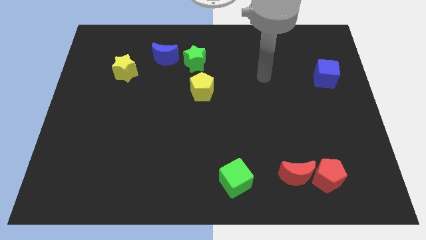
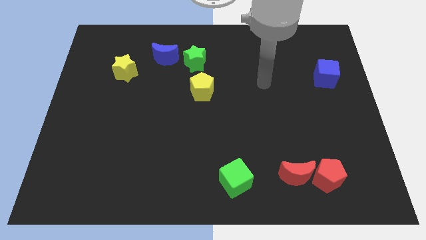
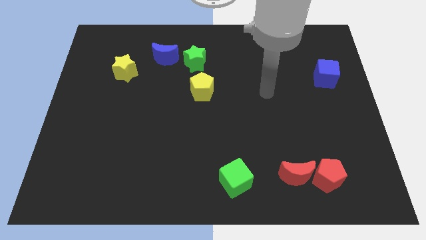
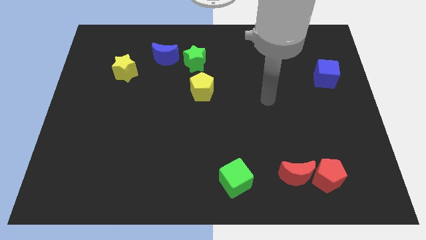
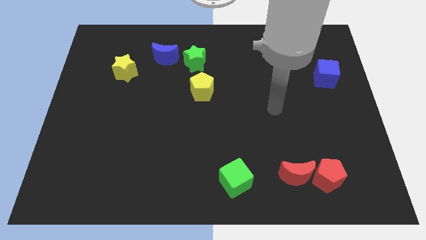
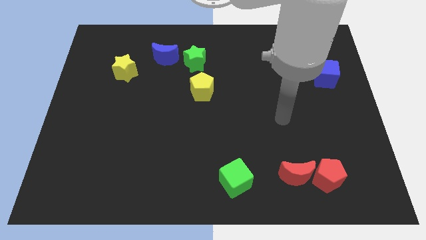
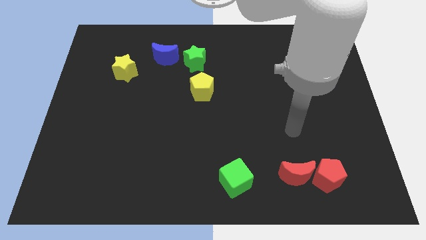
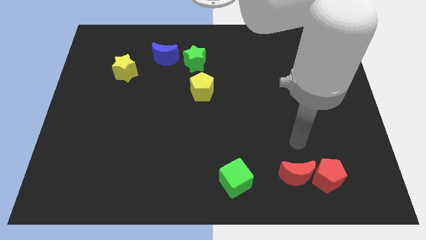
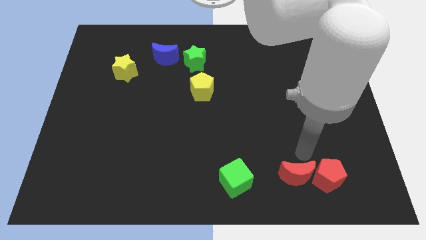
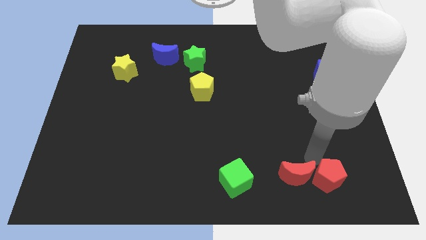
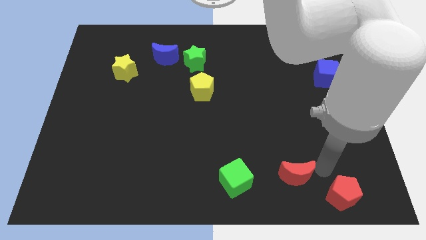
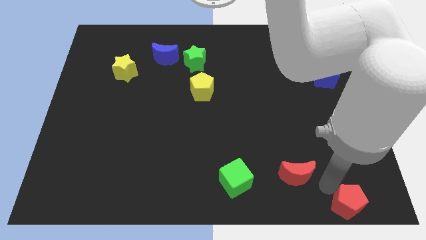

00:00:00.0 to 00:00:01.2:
separate the red moon from the red pentagon

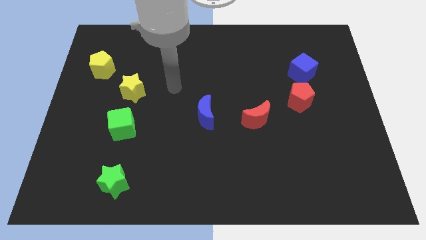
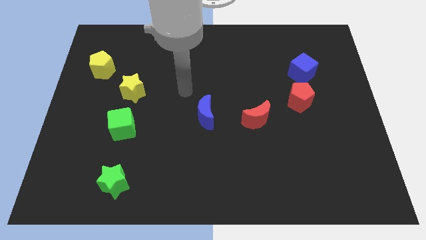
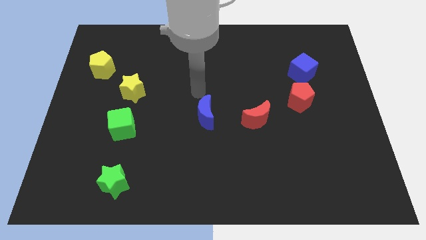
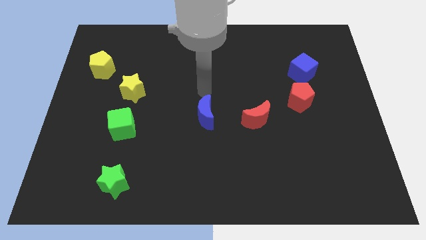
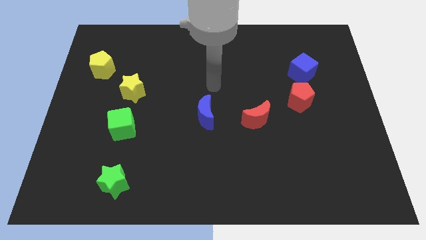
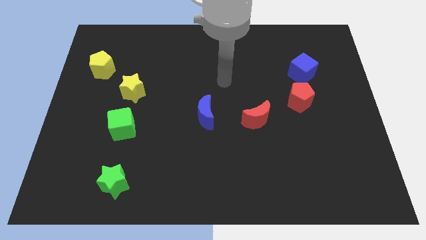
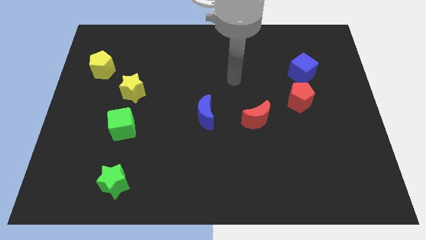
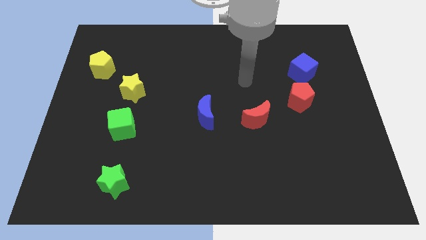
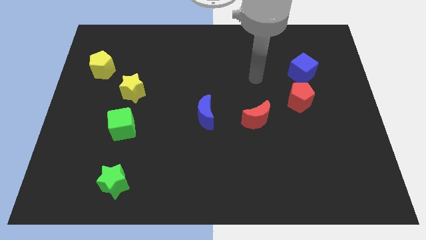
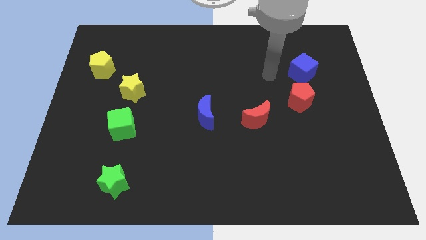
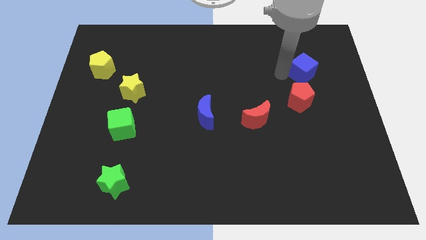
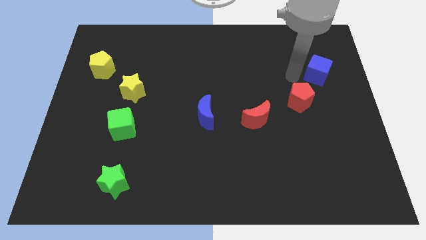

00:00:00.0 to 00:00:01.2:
separate the red pentagon from the blue cube

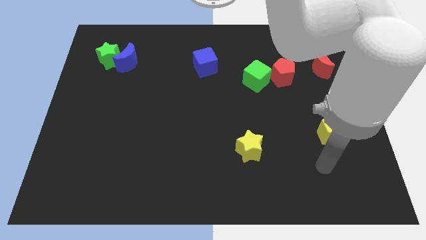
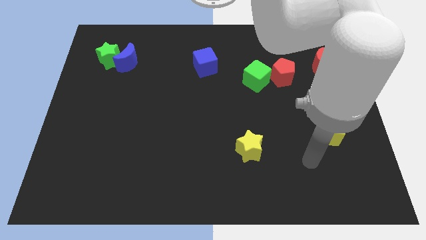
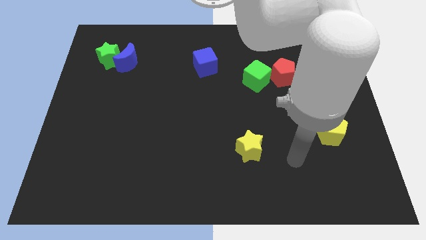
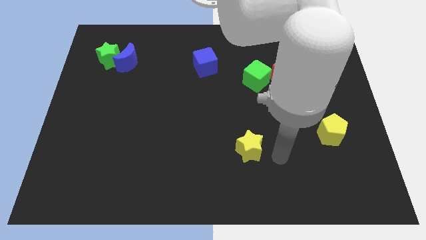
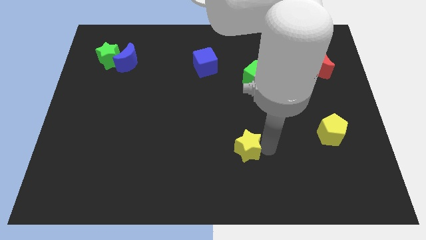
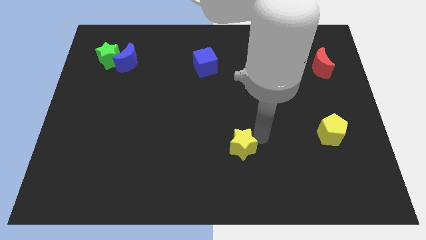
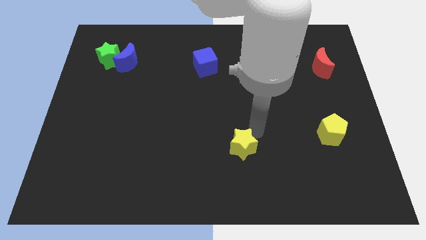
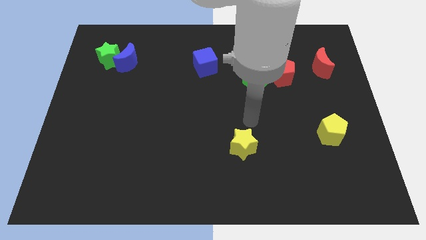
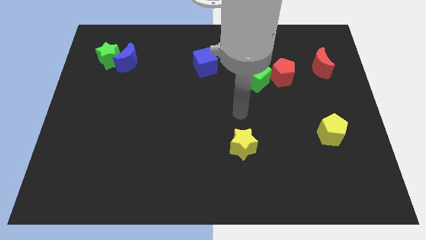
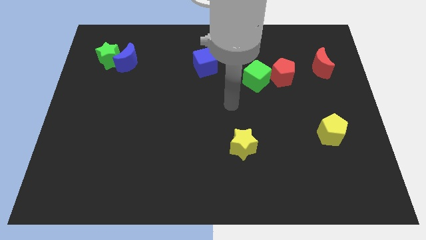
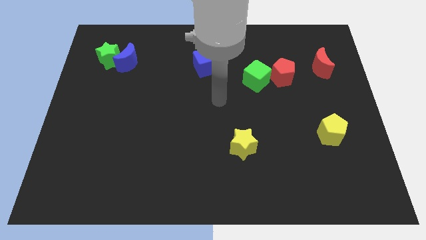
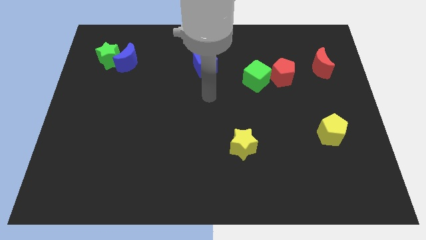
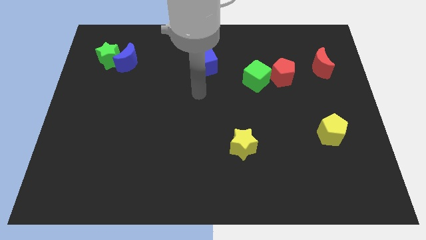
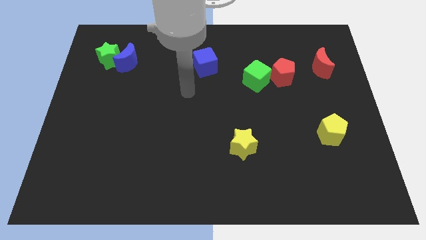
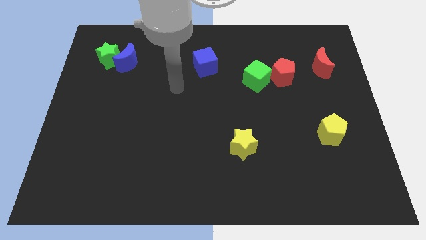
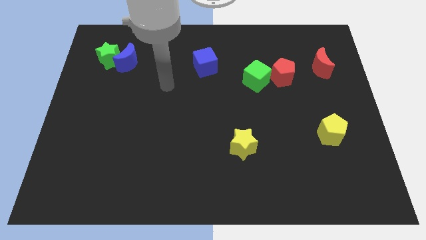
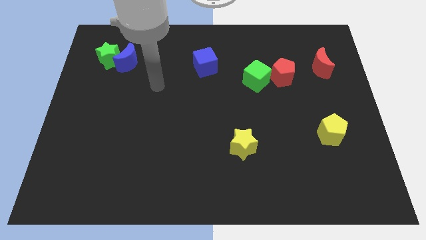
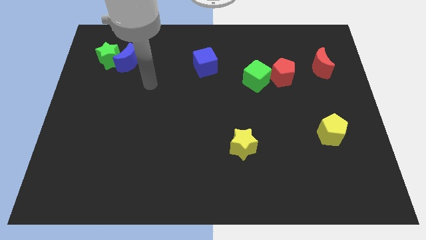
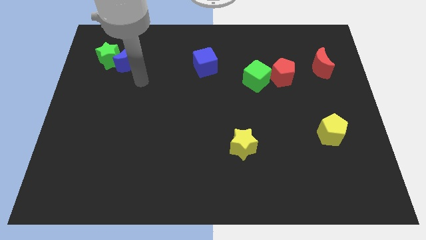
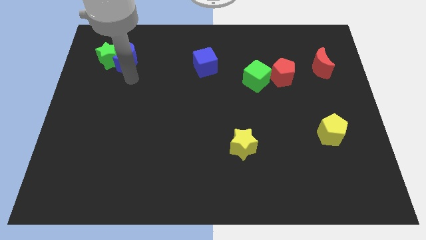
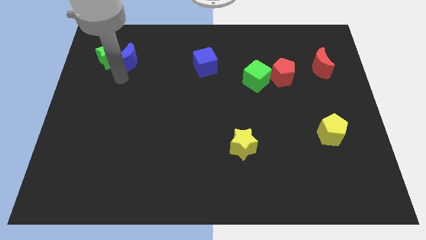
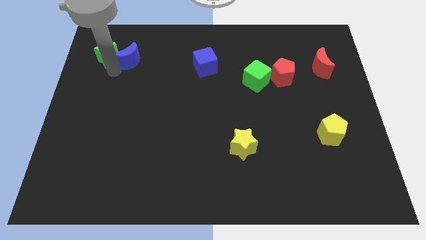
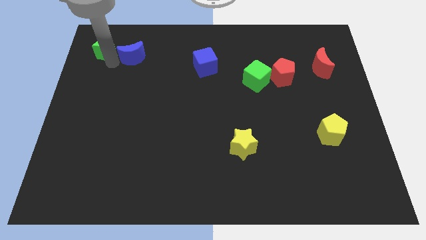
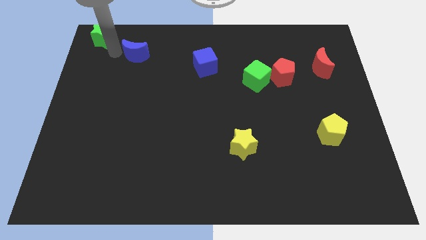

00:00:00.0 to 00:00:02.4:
separate the blue moon from the green star

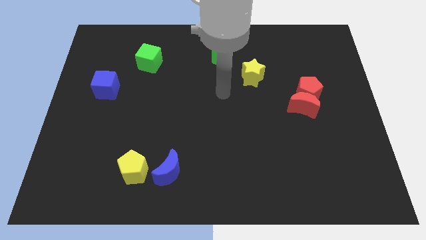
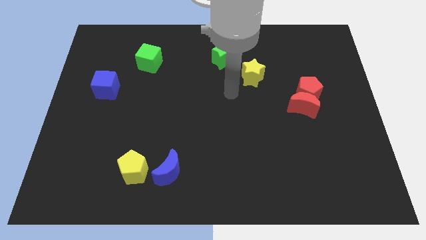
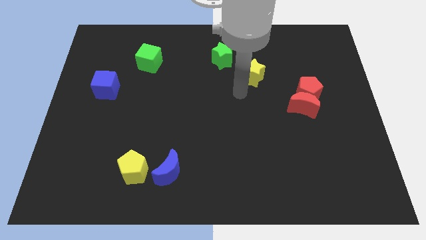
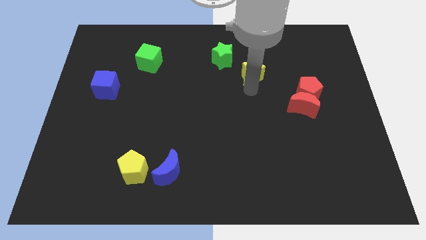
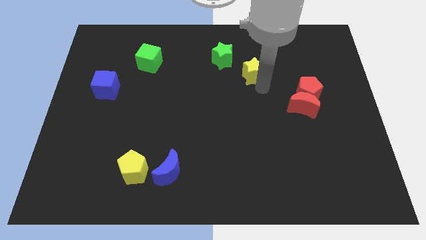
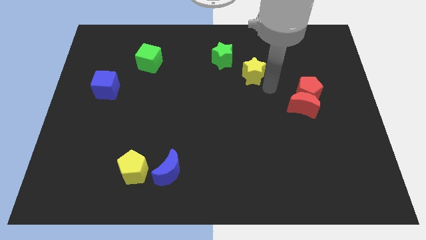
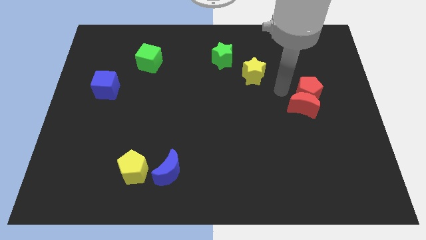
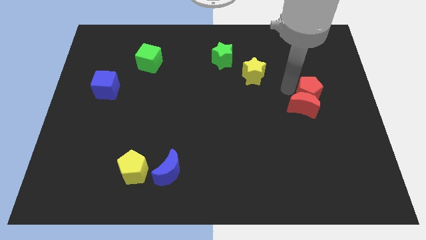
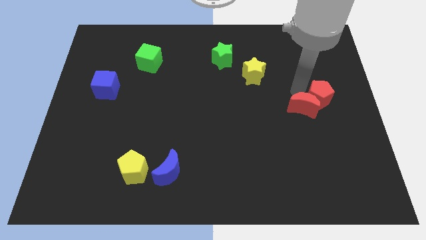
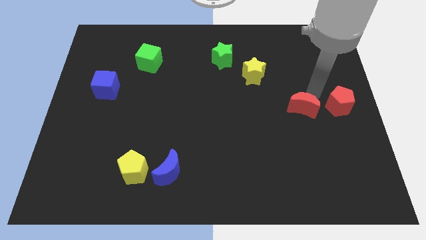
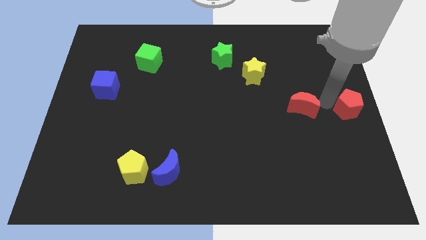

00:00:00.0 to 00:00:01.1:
move the red moon away from the red pentagon

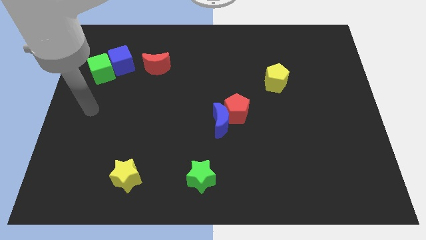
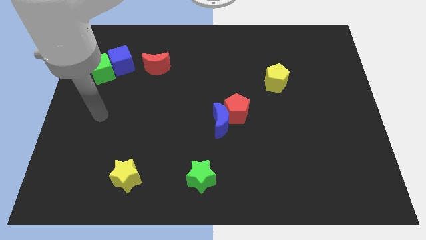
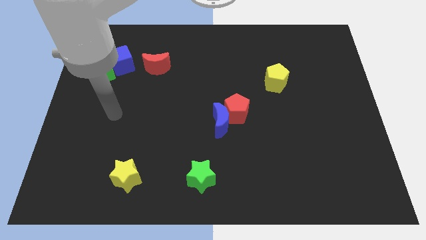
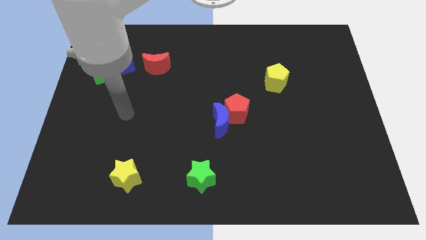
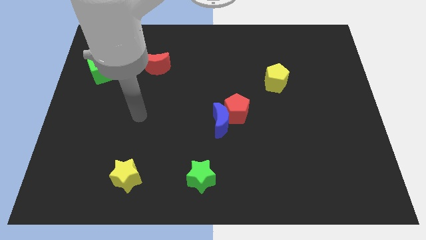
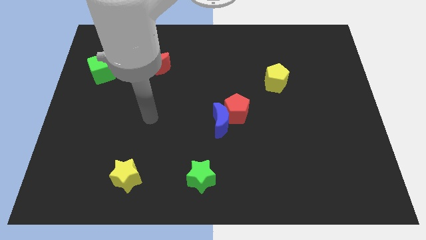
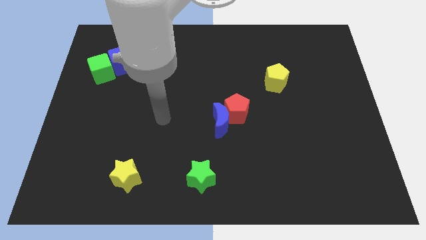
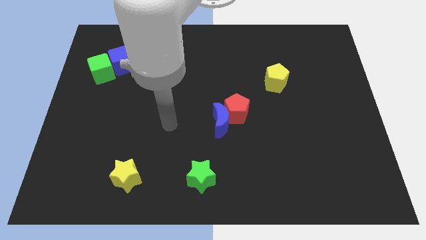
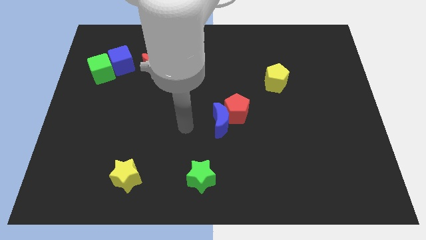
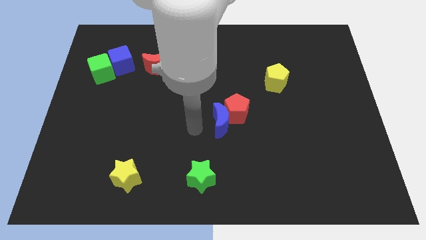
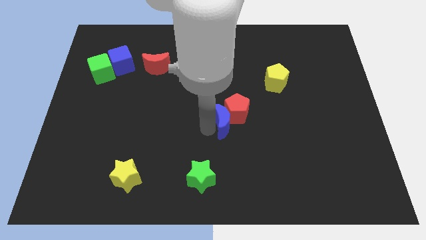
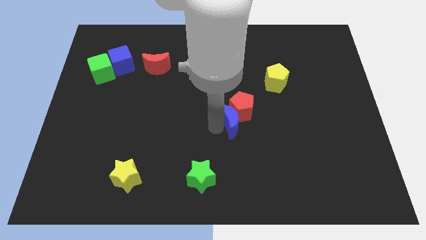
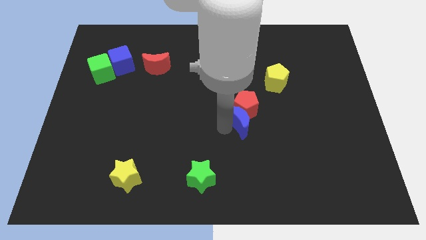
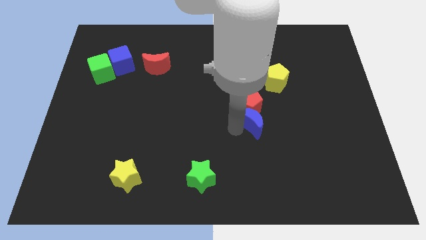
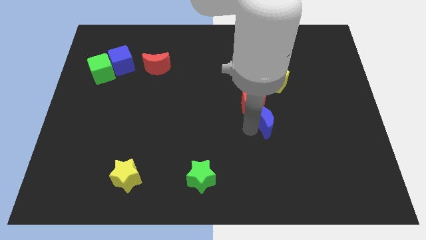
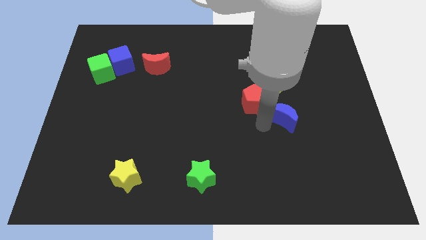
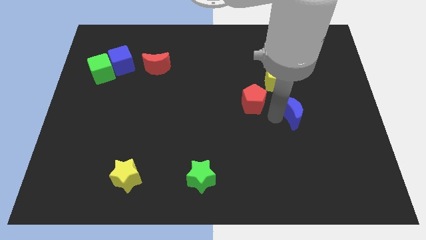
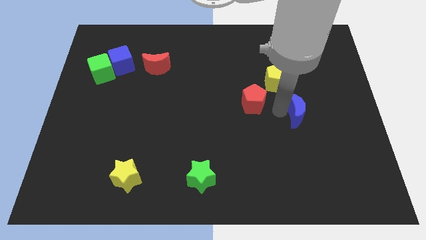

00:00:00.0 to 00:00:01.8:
separate the red pentagon from the blue moon

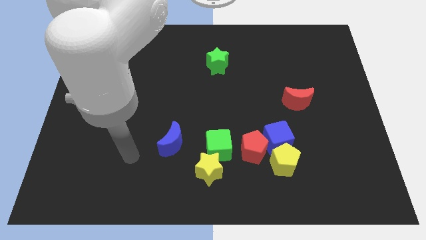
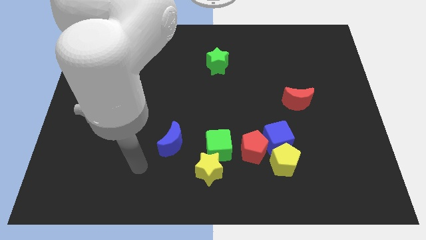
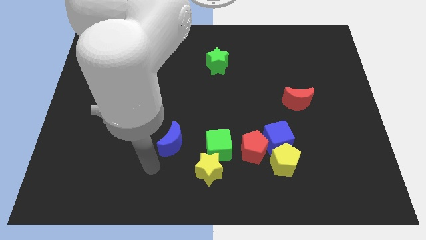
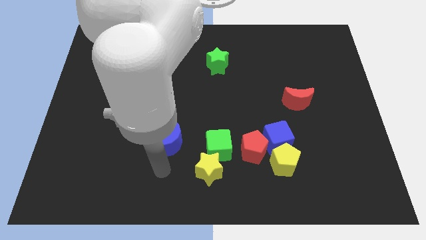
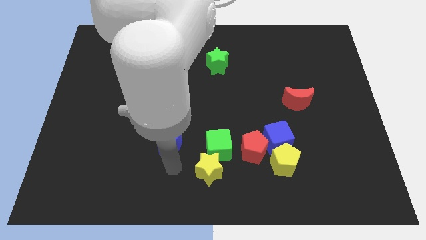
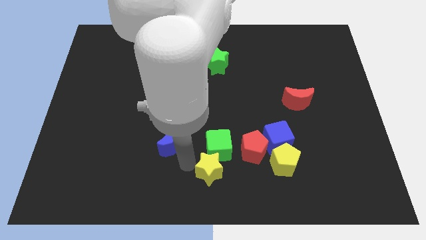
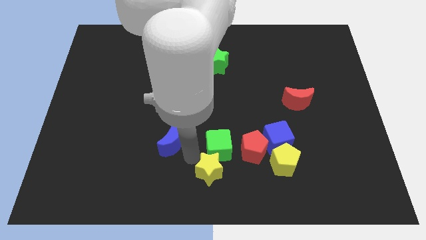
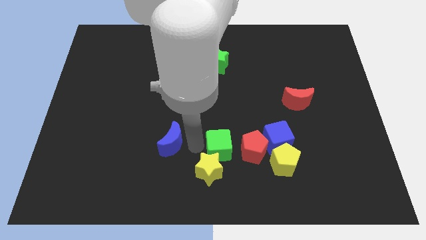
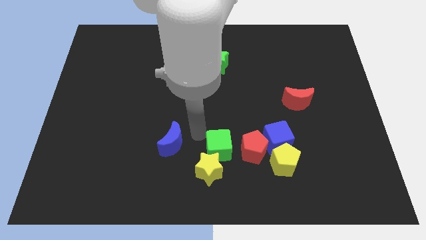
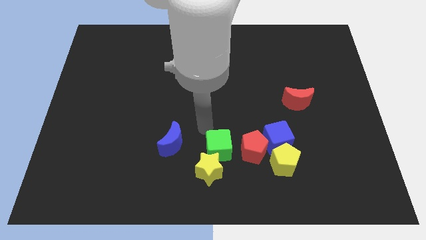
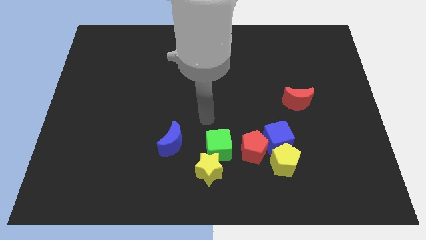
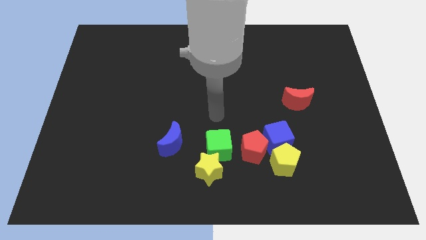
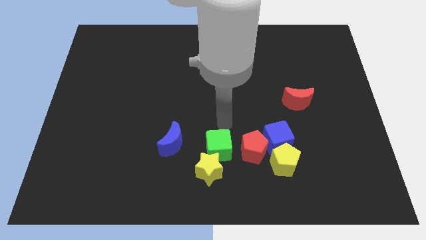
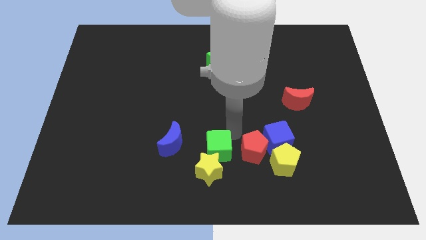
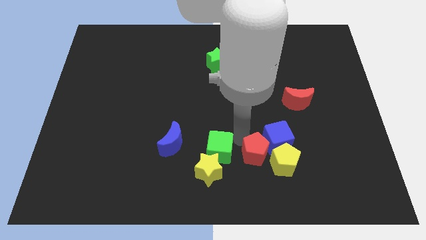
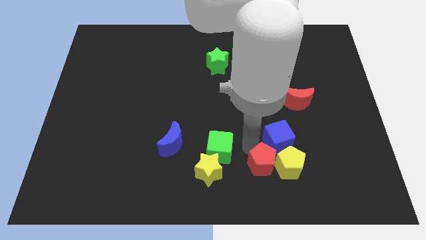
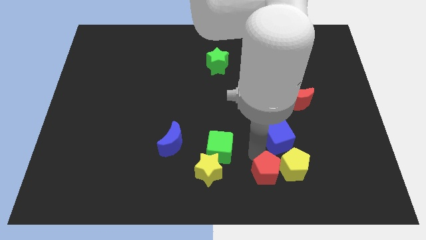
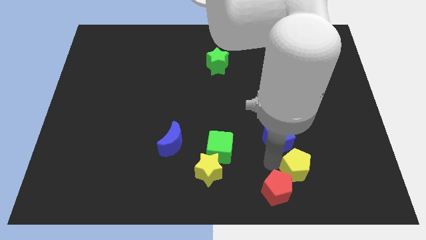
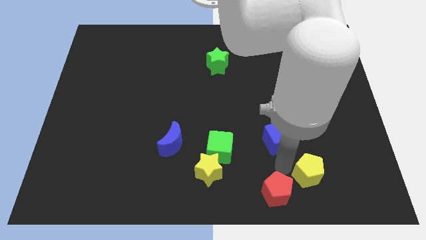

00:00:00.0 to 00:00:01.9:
move the blue cube away from the yellow pentagon and red pentagon
